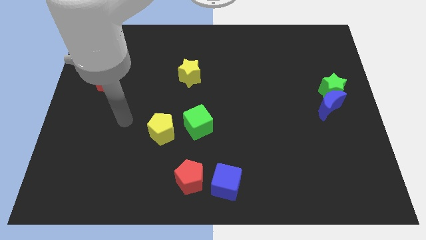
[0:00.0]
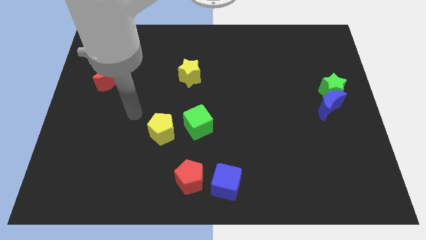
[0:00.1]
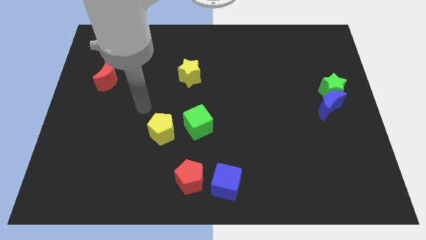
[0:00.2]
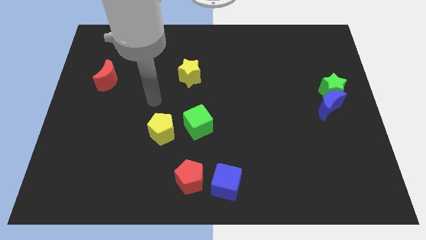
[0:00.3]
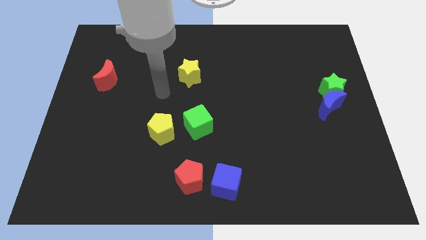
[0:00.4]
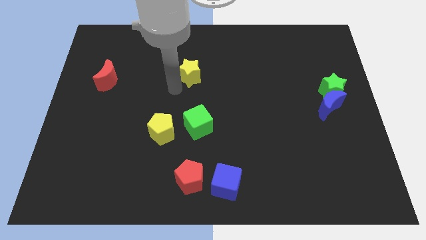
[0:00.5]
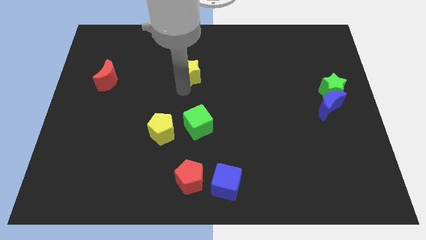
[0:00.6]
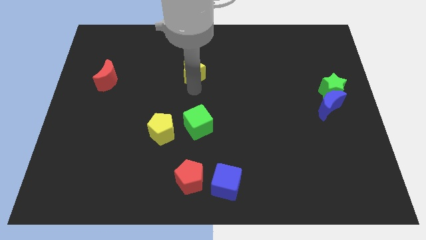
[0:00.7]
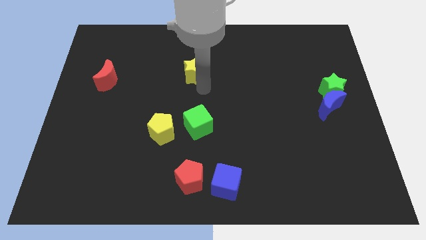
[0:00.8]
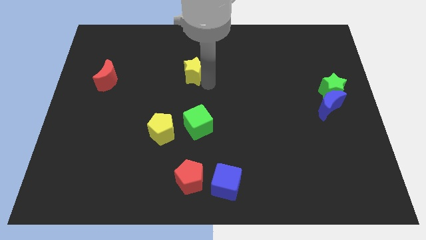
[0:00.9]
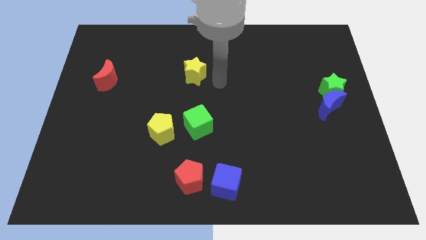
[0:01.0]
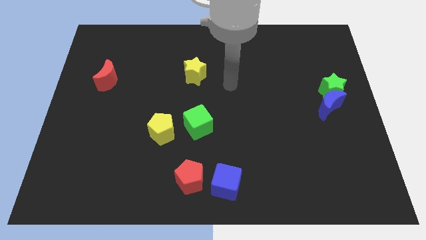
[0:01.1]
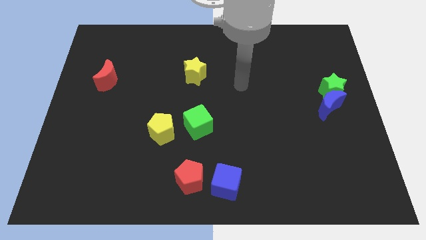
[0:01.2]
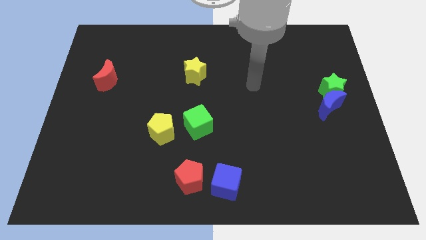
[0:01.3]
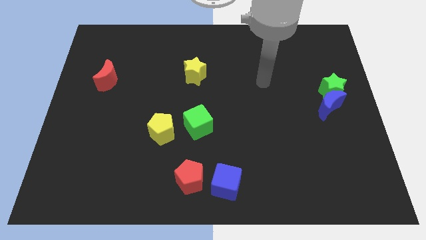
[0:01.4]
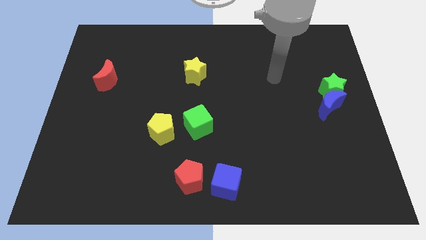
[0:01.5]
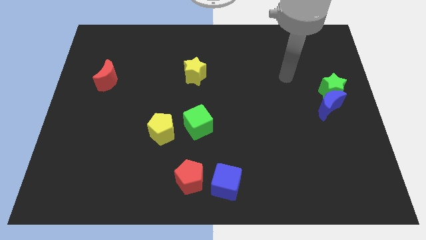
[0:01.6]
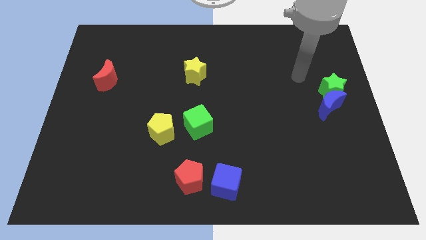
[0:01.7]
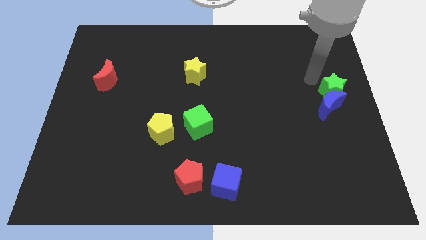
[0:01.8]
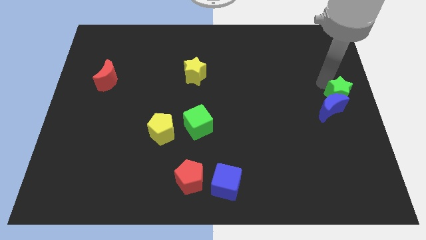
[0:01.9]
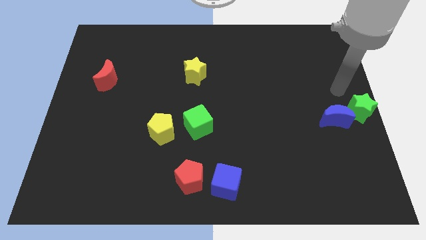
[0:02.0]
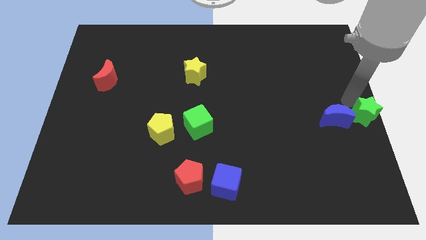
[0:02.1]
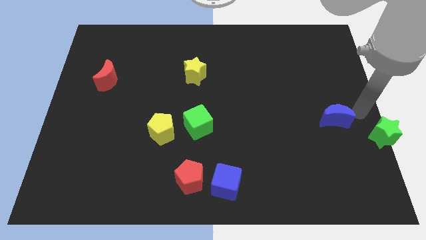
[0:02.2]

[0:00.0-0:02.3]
move the blue moon away from the green star

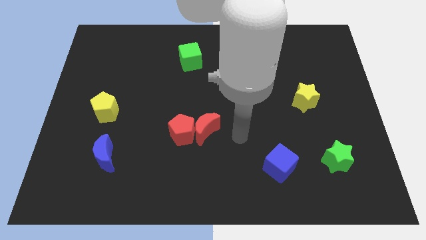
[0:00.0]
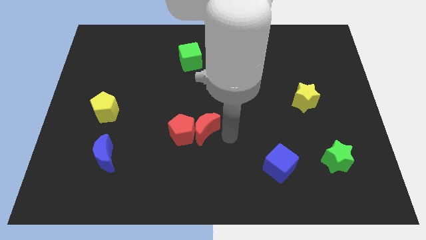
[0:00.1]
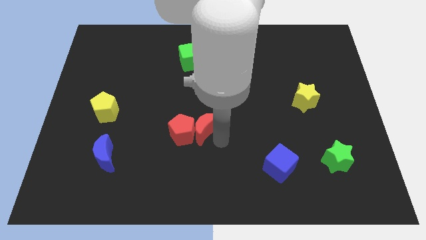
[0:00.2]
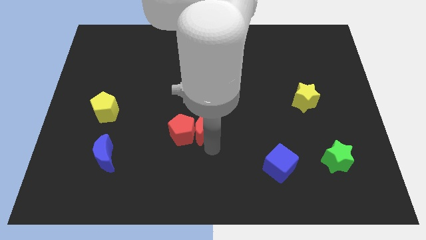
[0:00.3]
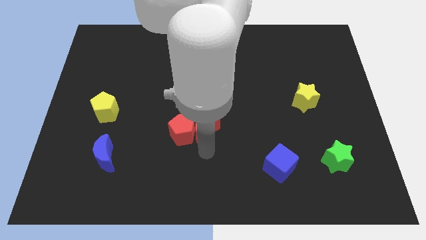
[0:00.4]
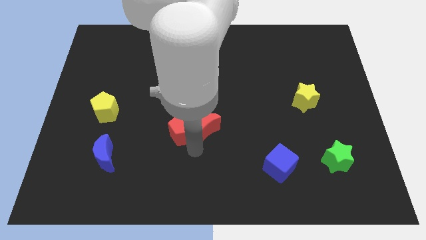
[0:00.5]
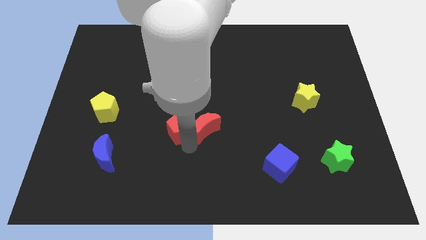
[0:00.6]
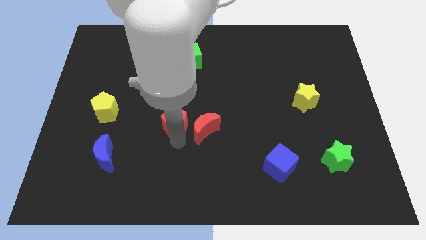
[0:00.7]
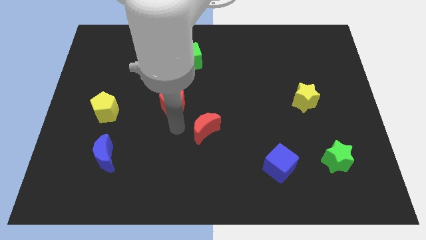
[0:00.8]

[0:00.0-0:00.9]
separate the red moon from the red pentagon

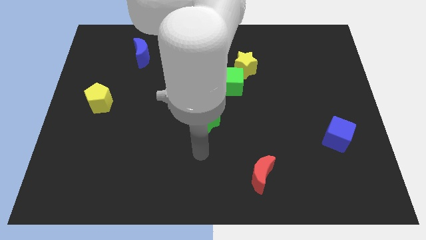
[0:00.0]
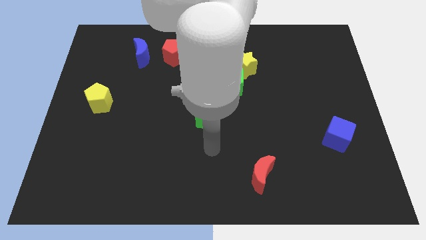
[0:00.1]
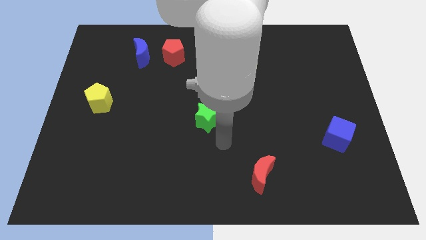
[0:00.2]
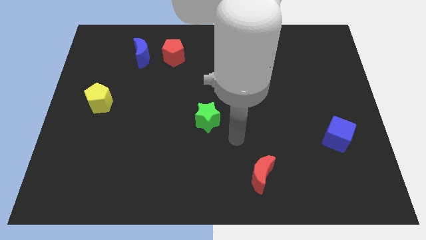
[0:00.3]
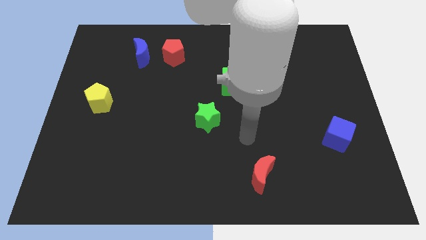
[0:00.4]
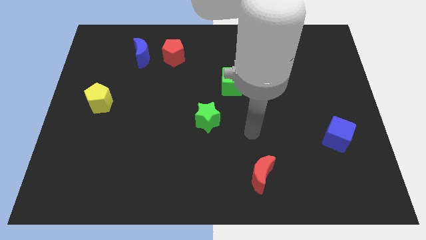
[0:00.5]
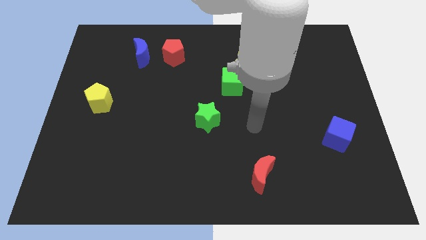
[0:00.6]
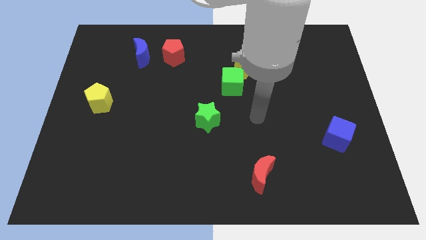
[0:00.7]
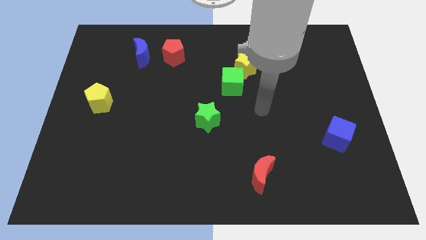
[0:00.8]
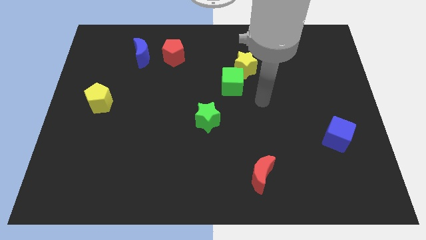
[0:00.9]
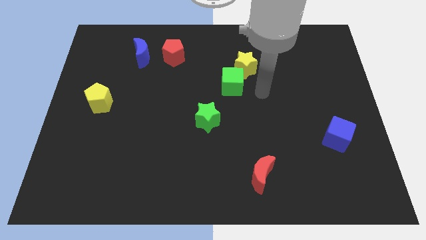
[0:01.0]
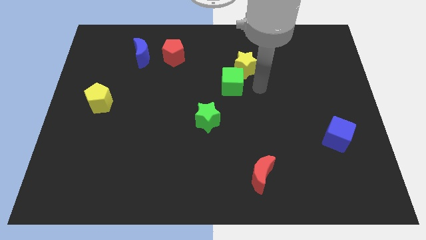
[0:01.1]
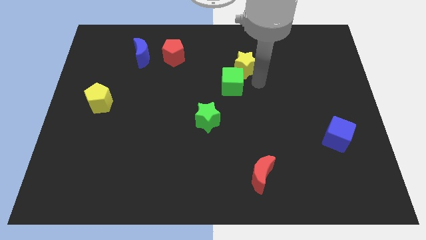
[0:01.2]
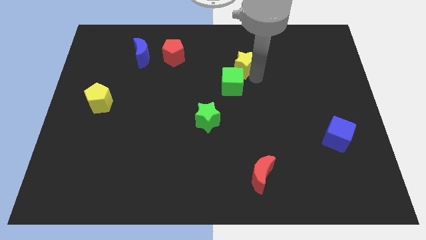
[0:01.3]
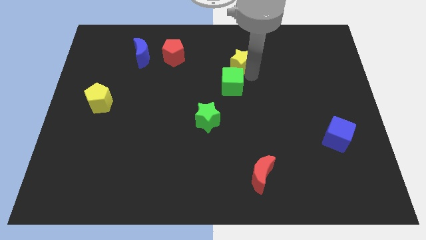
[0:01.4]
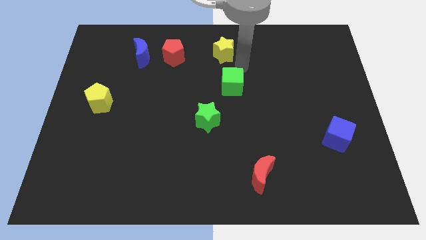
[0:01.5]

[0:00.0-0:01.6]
move the green cube away from the yellow star

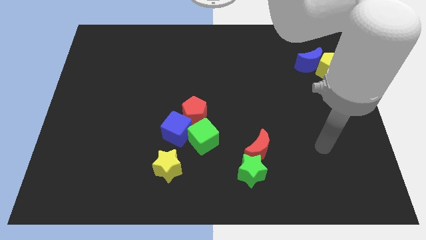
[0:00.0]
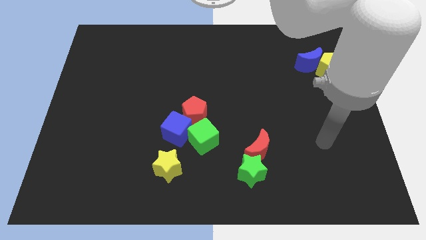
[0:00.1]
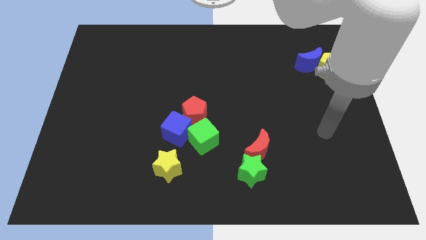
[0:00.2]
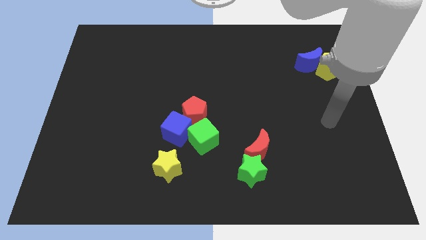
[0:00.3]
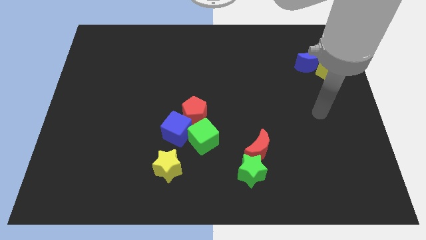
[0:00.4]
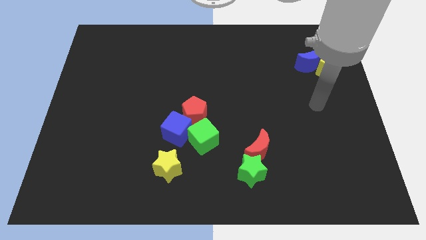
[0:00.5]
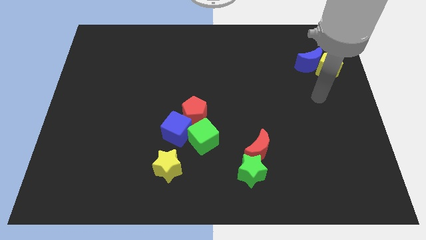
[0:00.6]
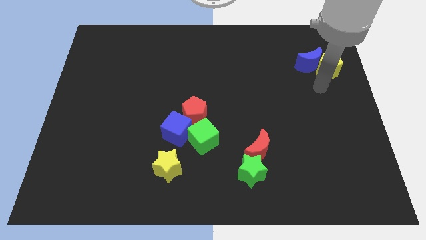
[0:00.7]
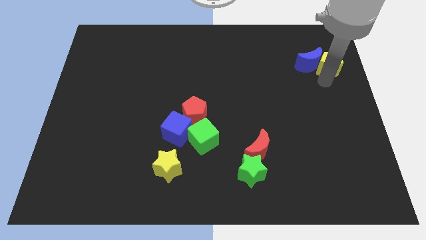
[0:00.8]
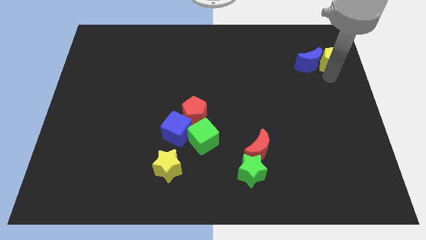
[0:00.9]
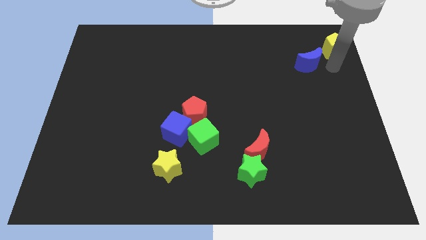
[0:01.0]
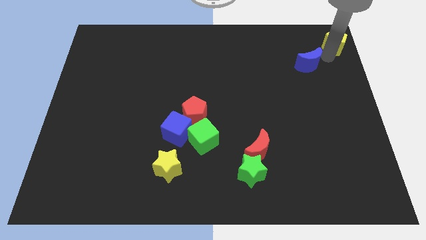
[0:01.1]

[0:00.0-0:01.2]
pull the blue moon apart from the yellow pentagon

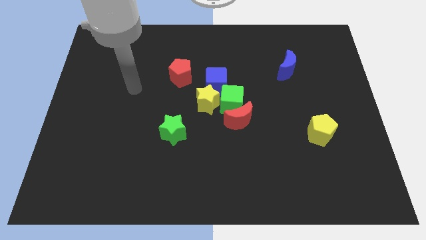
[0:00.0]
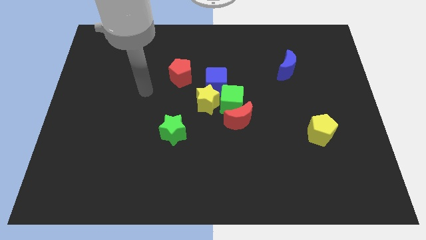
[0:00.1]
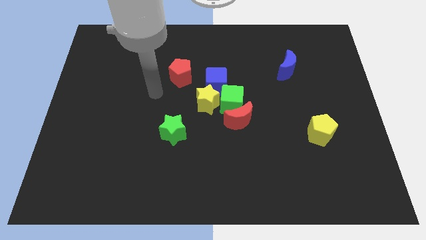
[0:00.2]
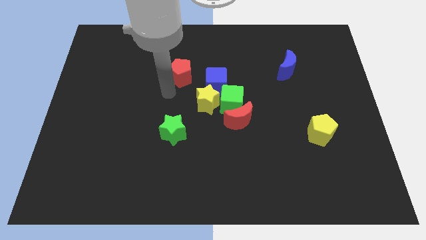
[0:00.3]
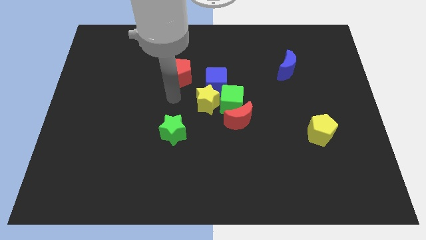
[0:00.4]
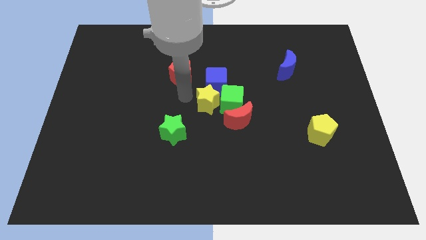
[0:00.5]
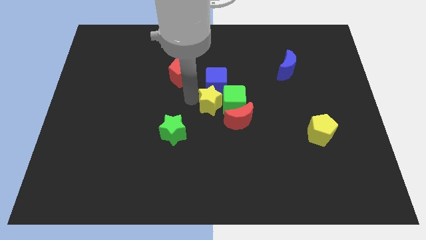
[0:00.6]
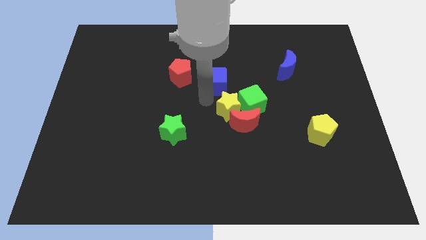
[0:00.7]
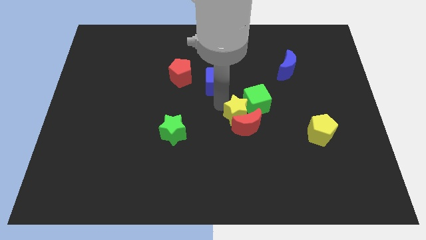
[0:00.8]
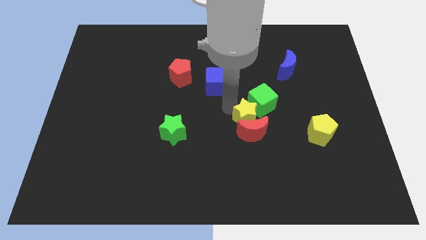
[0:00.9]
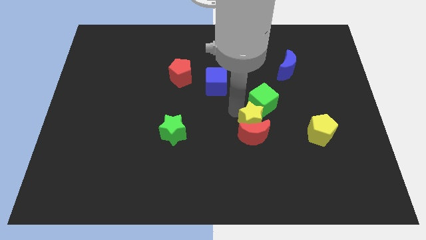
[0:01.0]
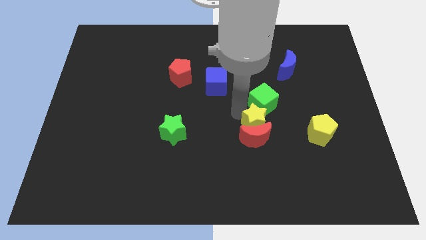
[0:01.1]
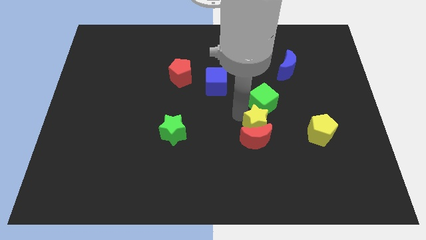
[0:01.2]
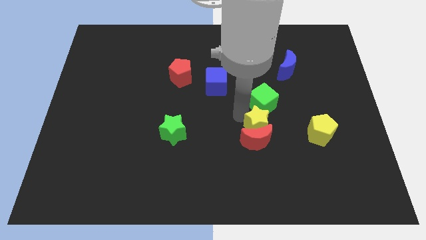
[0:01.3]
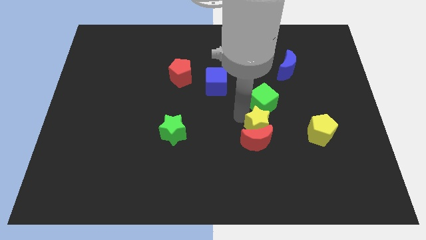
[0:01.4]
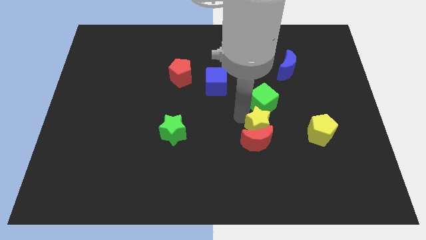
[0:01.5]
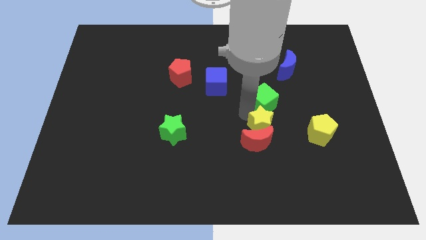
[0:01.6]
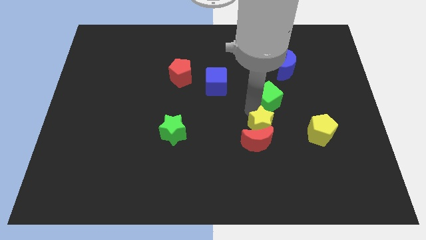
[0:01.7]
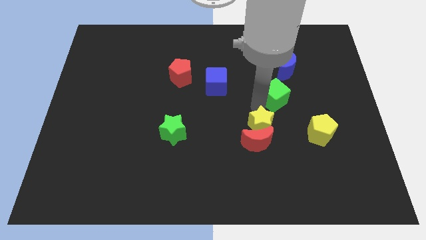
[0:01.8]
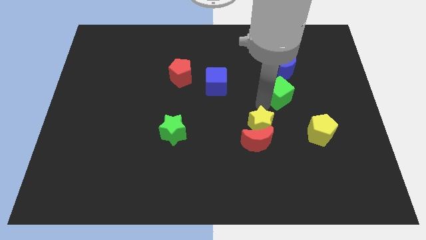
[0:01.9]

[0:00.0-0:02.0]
separate the green cube from the red moon, yellow star, and blue cube

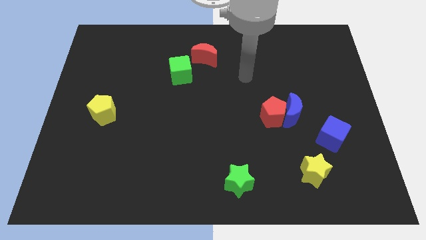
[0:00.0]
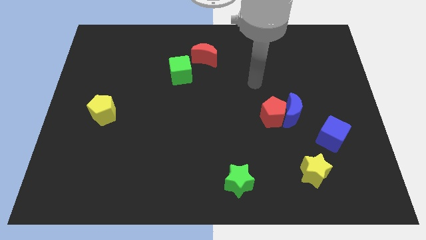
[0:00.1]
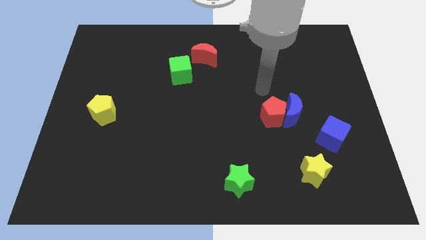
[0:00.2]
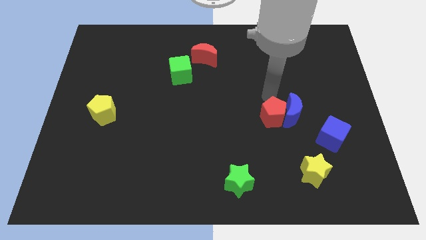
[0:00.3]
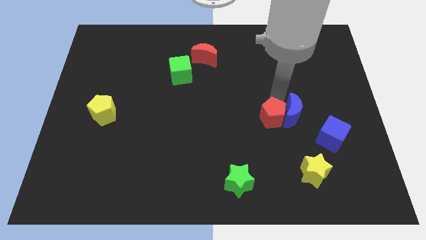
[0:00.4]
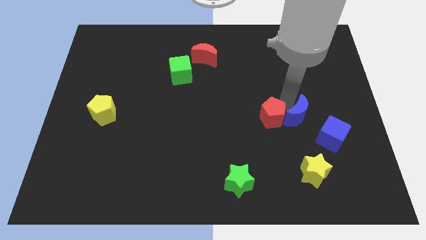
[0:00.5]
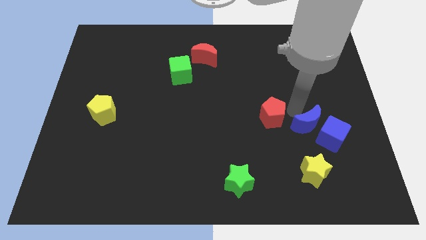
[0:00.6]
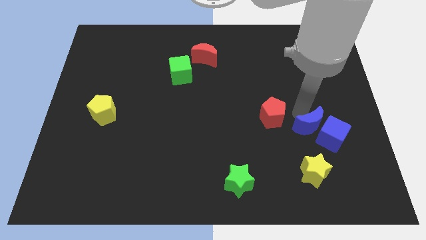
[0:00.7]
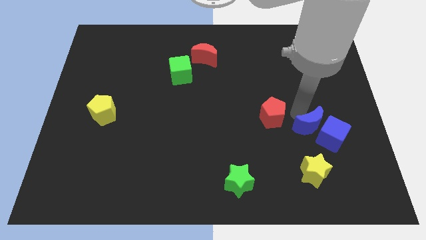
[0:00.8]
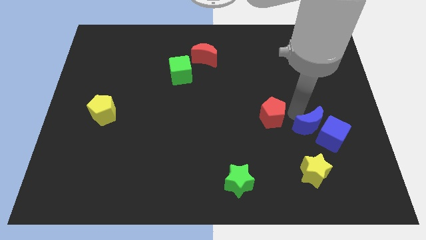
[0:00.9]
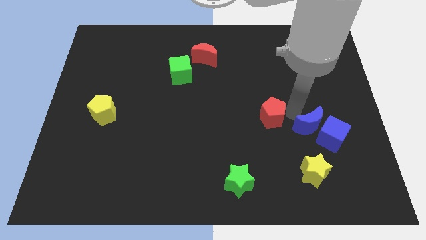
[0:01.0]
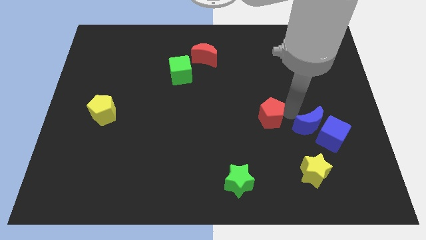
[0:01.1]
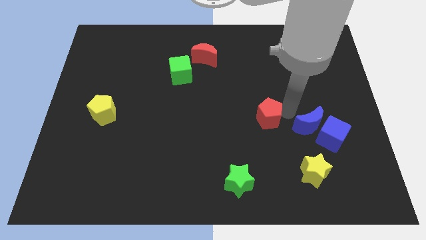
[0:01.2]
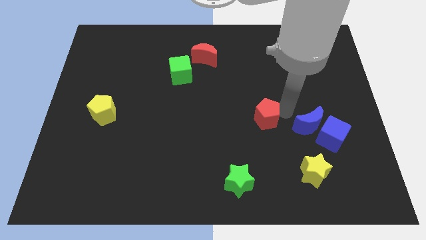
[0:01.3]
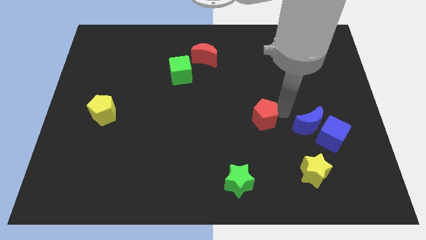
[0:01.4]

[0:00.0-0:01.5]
pull the red pentagon apart from the blue moon
